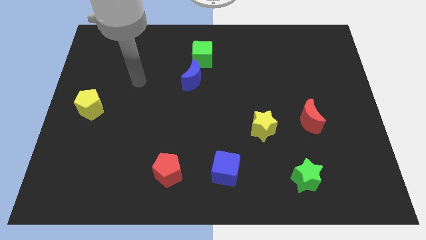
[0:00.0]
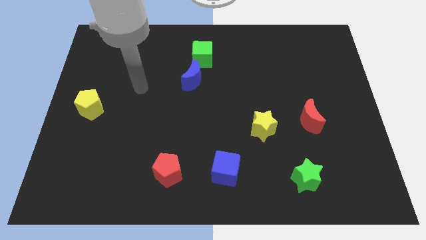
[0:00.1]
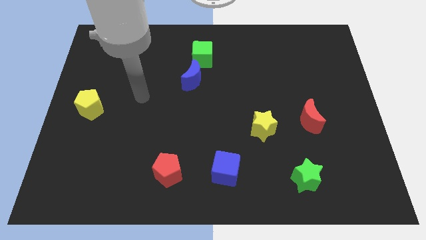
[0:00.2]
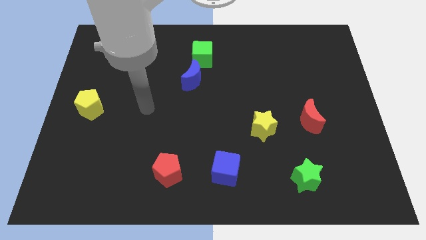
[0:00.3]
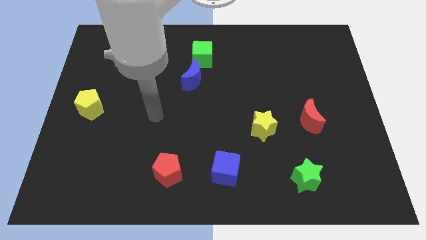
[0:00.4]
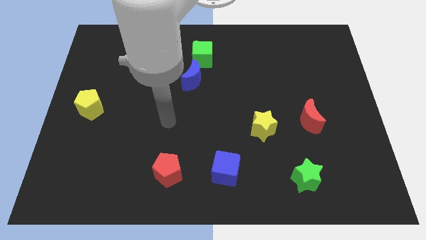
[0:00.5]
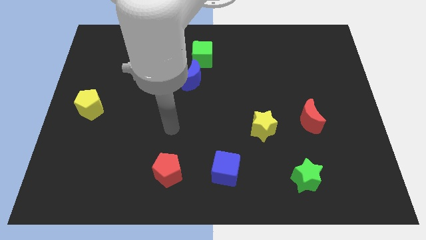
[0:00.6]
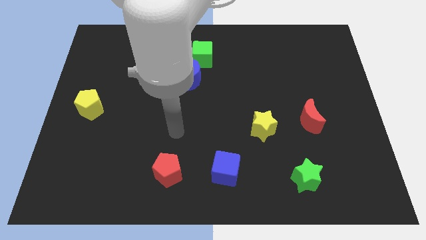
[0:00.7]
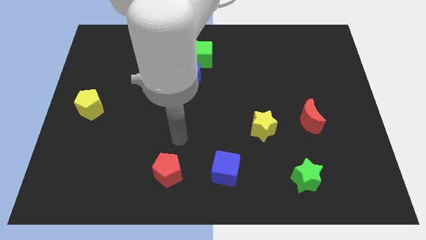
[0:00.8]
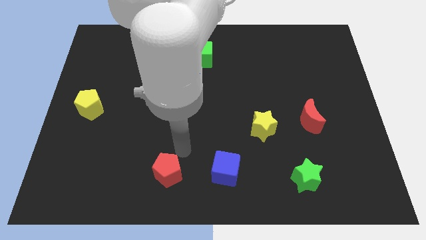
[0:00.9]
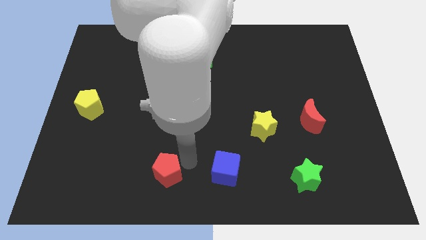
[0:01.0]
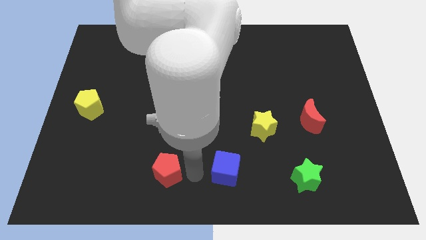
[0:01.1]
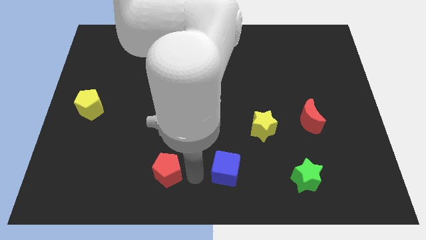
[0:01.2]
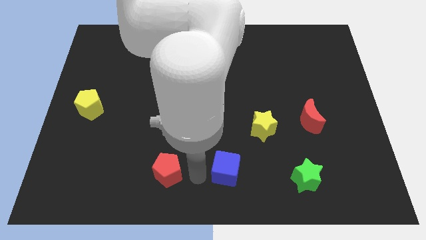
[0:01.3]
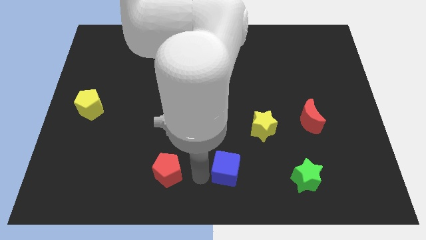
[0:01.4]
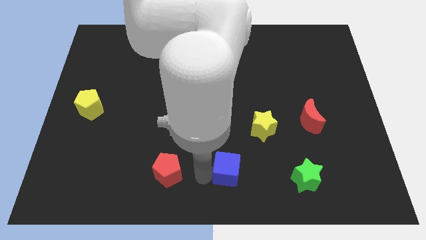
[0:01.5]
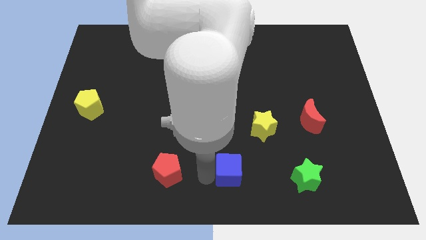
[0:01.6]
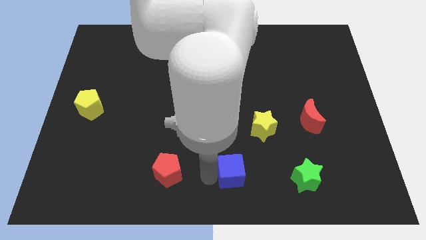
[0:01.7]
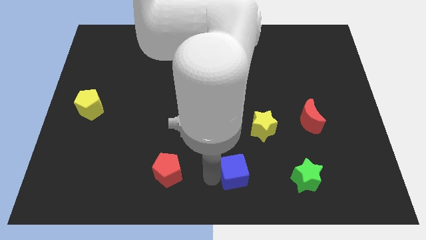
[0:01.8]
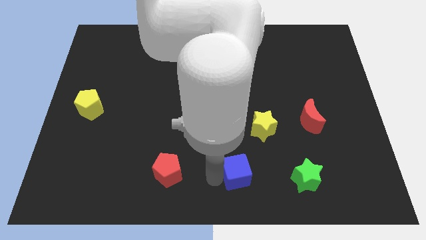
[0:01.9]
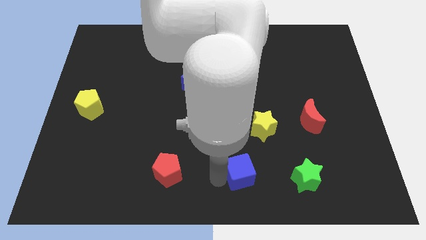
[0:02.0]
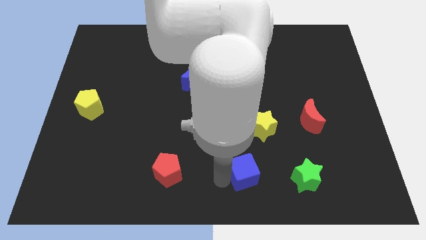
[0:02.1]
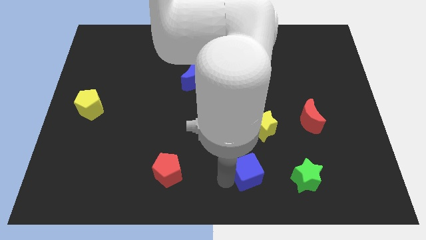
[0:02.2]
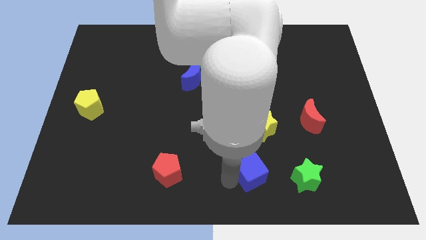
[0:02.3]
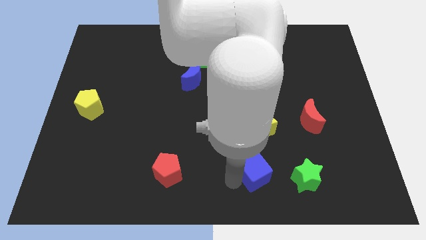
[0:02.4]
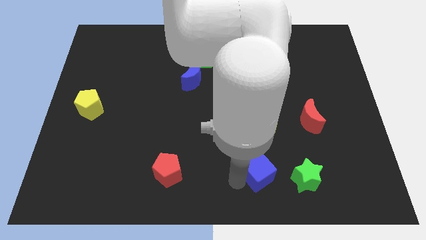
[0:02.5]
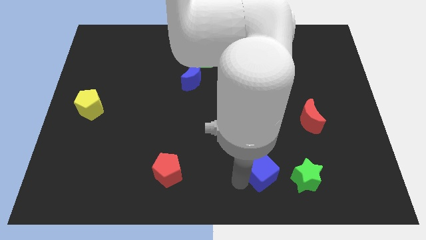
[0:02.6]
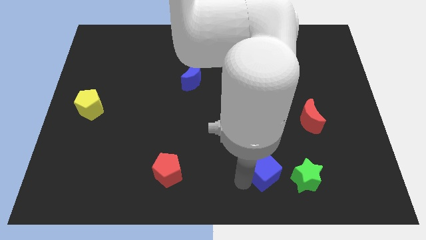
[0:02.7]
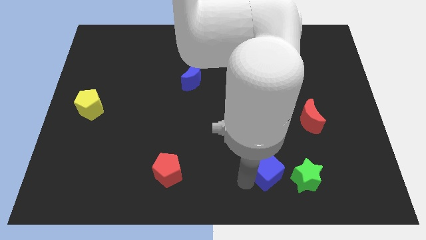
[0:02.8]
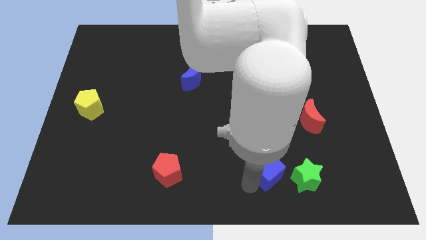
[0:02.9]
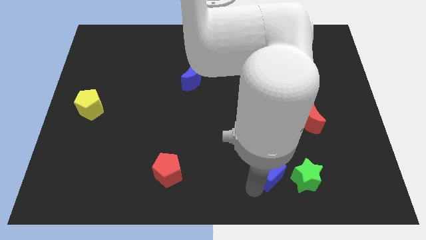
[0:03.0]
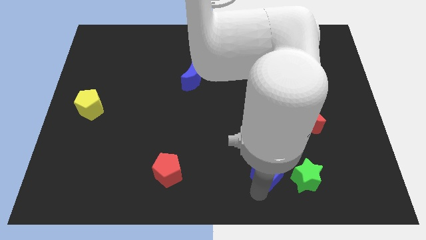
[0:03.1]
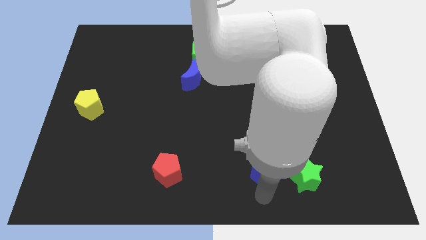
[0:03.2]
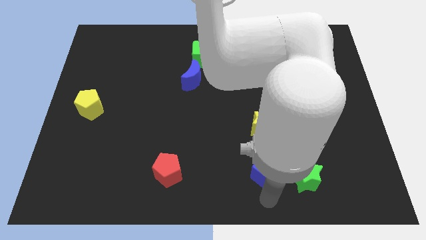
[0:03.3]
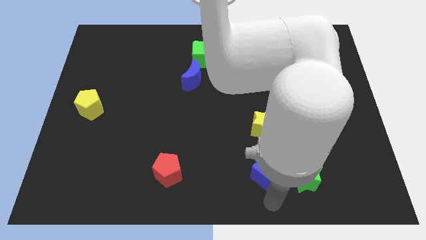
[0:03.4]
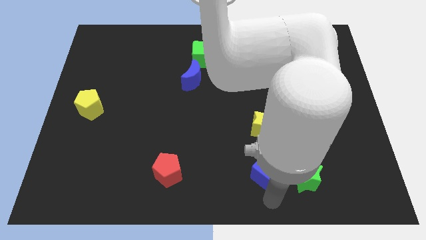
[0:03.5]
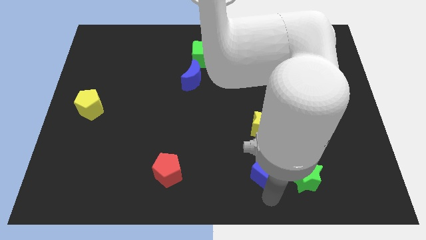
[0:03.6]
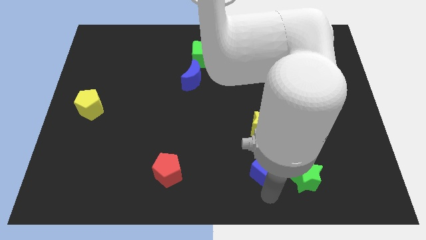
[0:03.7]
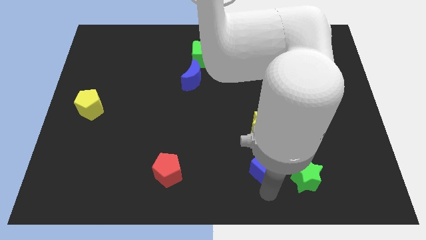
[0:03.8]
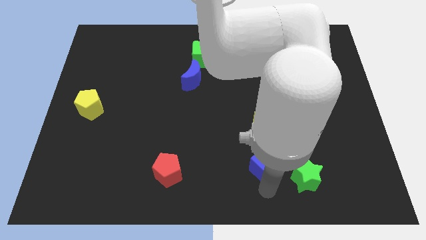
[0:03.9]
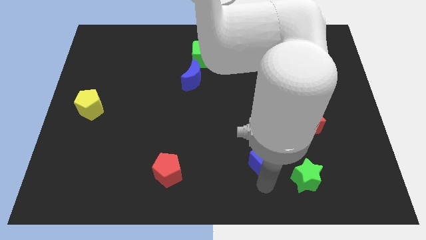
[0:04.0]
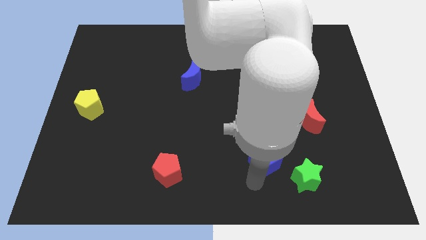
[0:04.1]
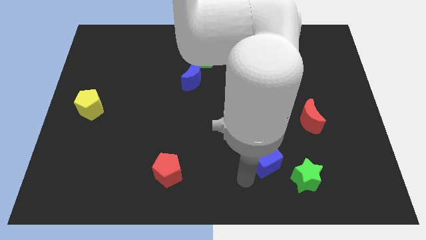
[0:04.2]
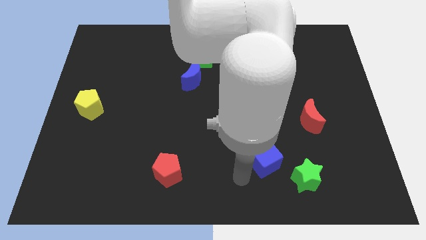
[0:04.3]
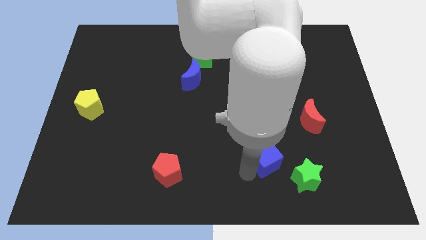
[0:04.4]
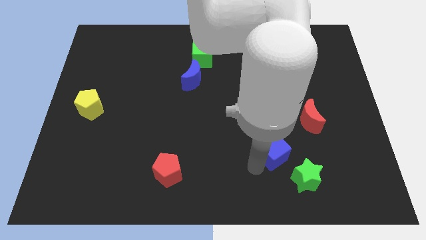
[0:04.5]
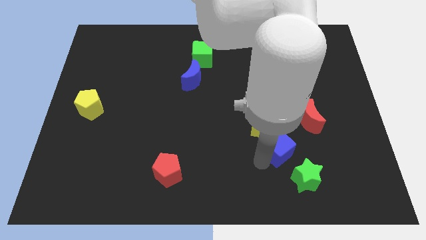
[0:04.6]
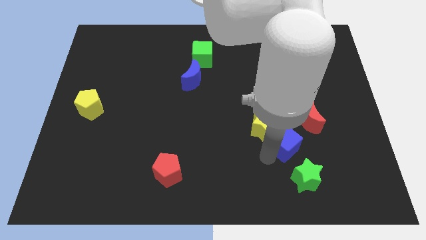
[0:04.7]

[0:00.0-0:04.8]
move the blue cube just right of the yellow star

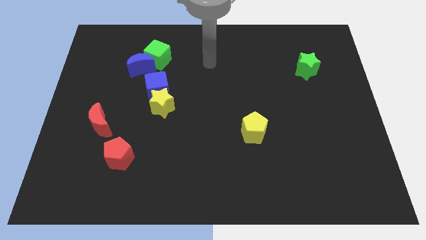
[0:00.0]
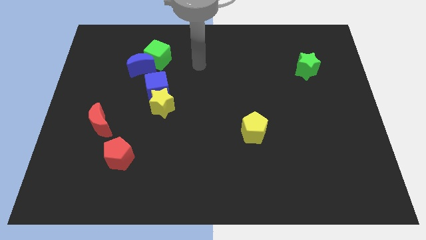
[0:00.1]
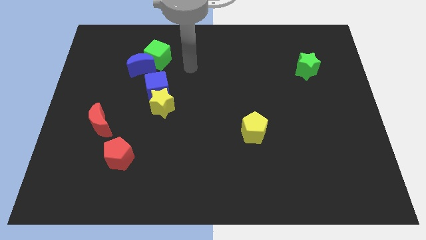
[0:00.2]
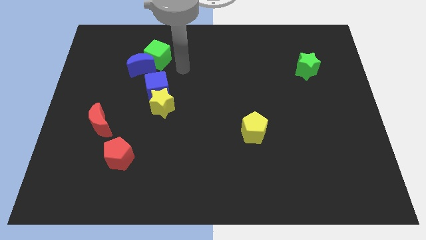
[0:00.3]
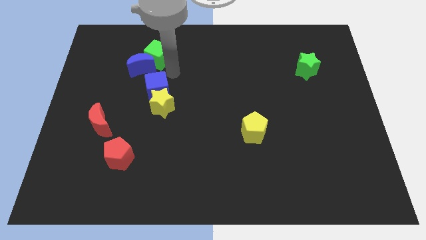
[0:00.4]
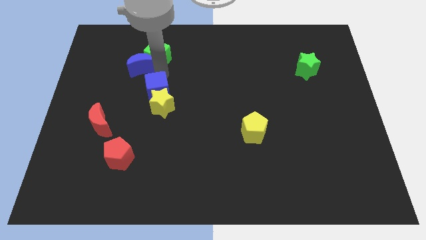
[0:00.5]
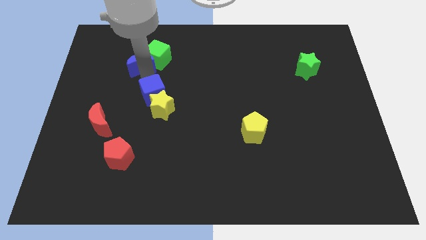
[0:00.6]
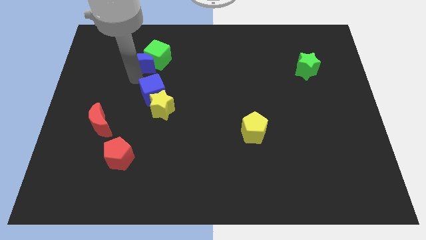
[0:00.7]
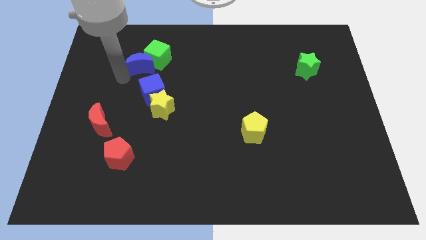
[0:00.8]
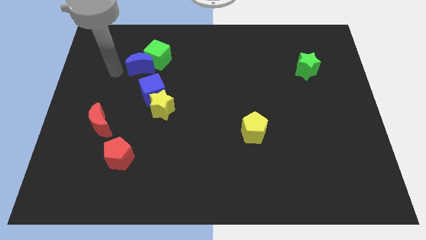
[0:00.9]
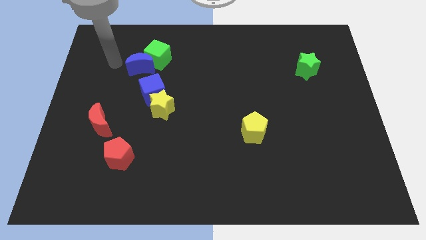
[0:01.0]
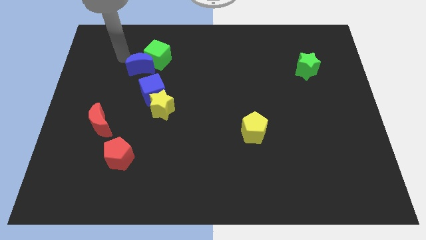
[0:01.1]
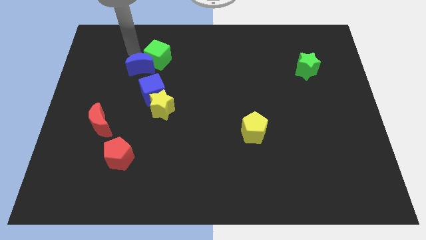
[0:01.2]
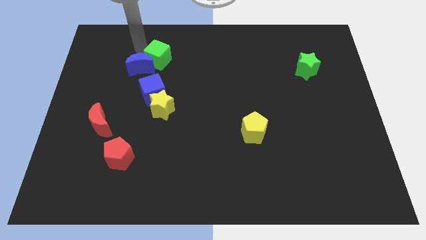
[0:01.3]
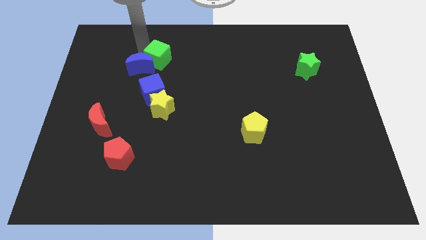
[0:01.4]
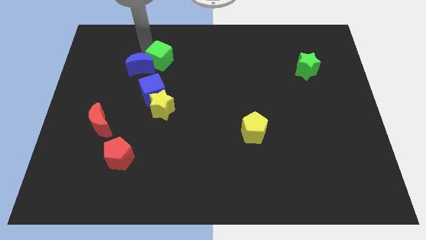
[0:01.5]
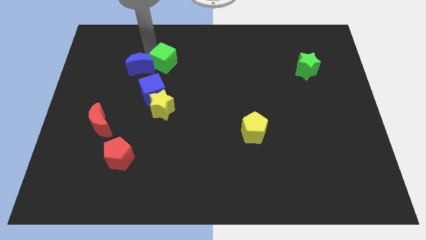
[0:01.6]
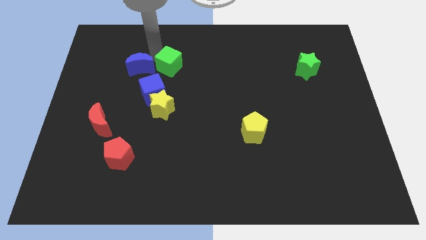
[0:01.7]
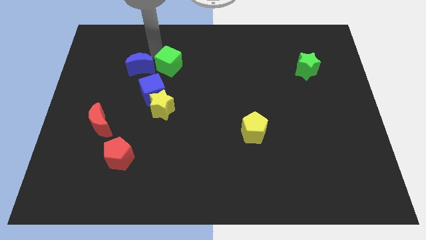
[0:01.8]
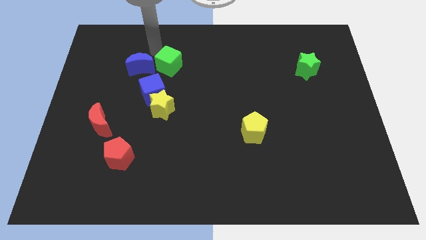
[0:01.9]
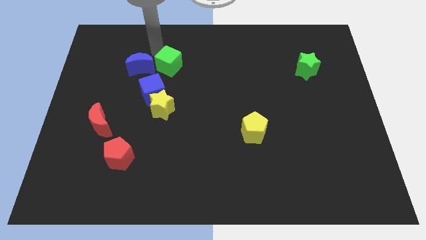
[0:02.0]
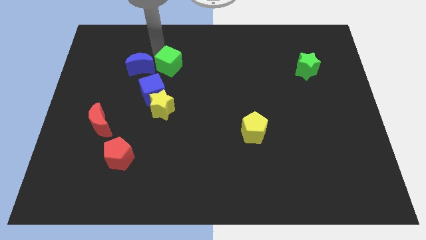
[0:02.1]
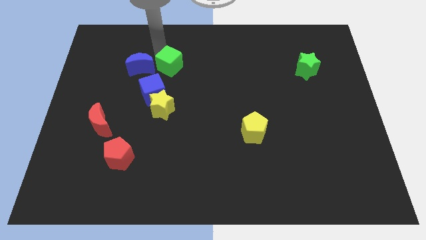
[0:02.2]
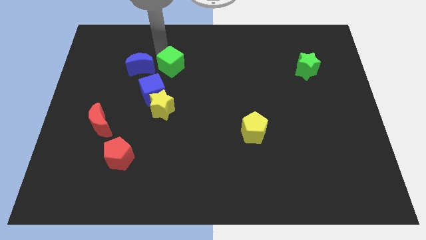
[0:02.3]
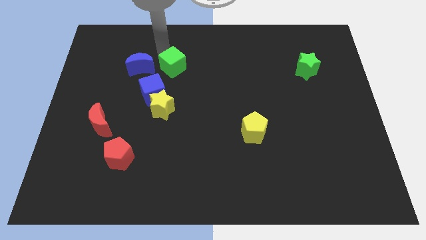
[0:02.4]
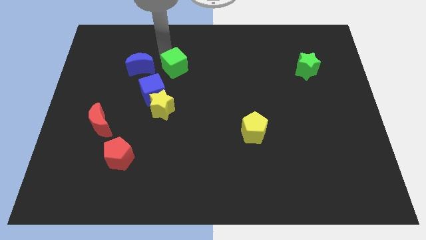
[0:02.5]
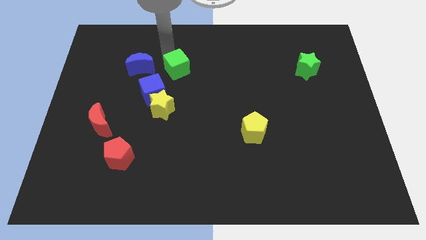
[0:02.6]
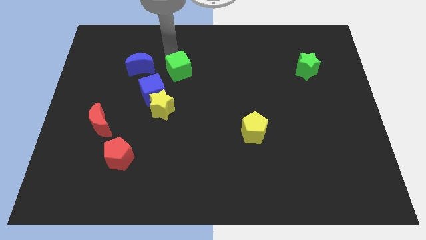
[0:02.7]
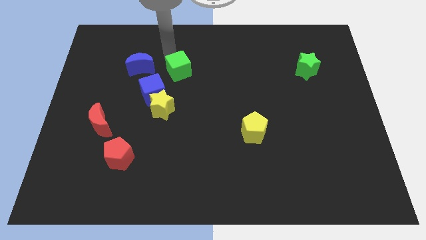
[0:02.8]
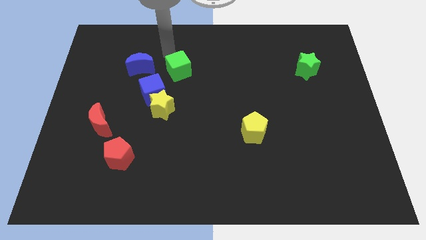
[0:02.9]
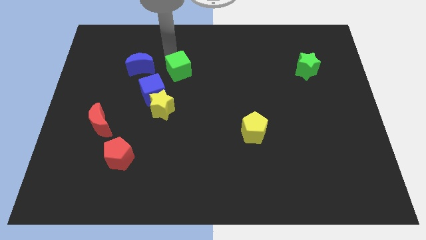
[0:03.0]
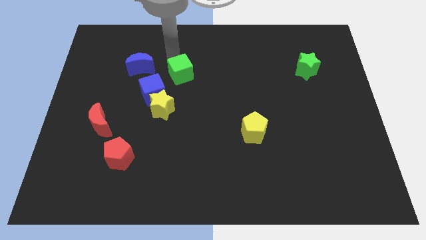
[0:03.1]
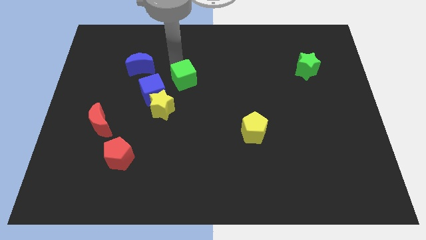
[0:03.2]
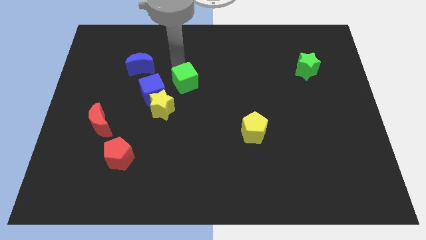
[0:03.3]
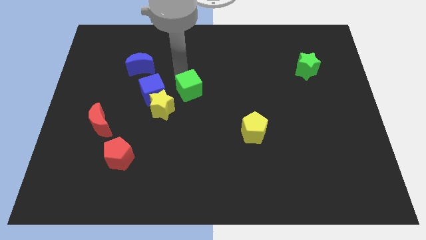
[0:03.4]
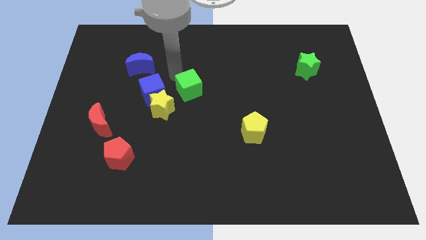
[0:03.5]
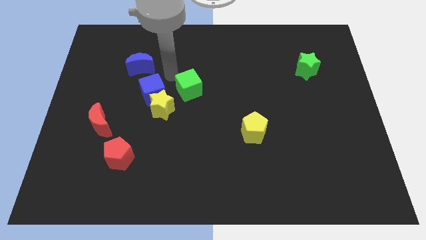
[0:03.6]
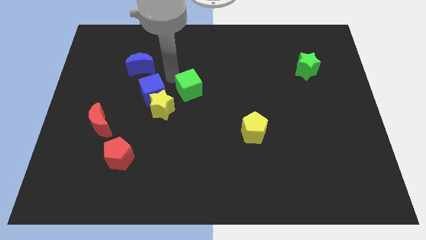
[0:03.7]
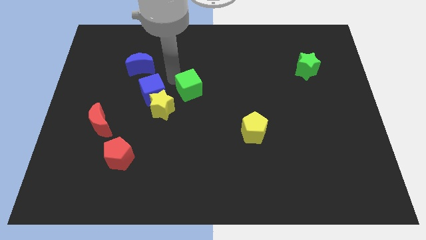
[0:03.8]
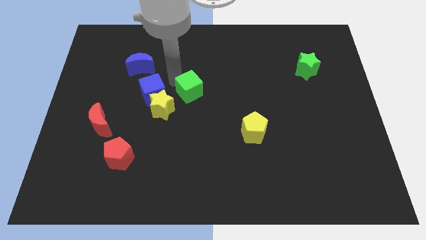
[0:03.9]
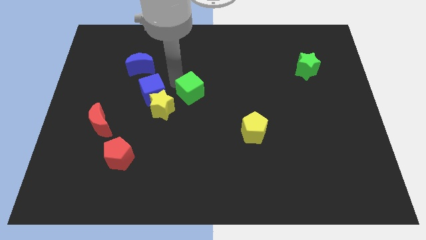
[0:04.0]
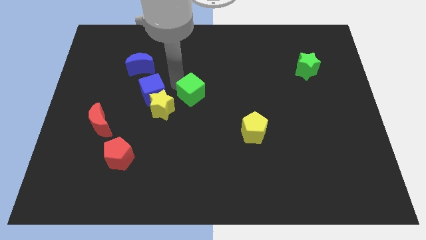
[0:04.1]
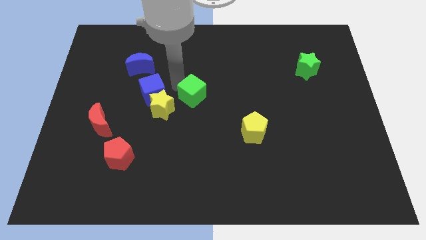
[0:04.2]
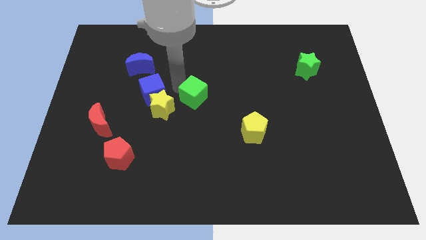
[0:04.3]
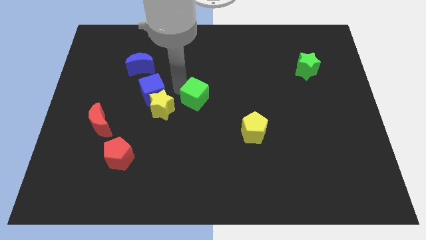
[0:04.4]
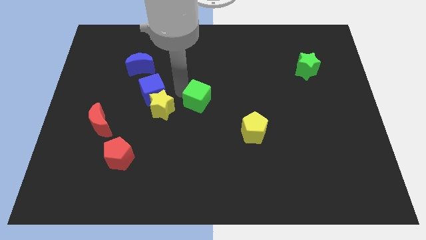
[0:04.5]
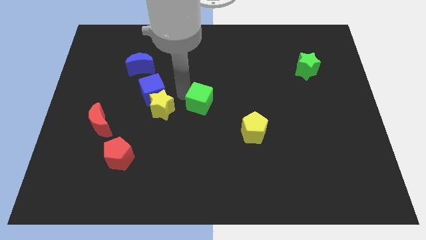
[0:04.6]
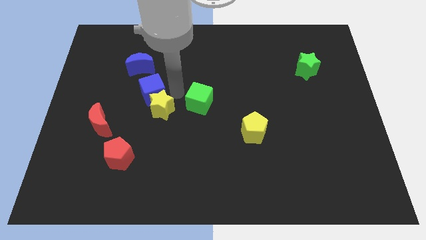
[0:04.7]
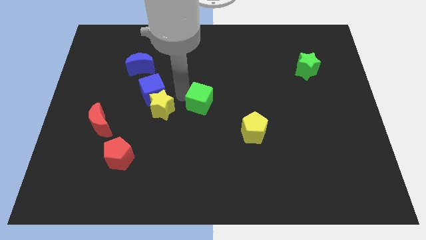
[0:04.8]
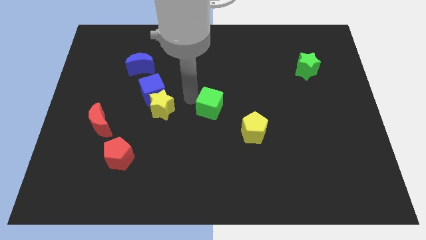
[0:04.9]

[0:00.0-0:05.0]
move the green cube to the top left side of the yellow pentagon
